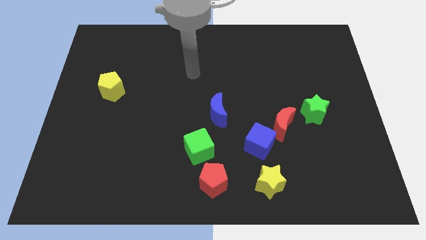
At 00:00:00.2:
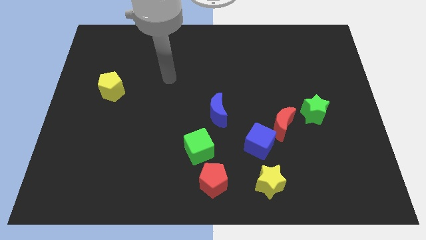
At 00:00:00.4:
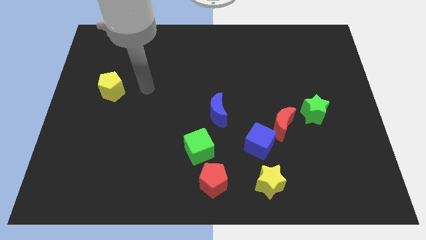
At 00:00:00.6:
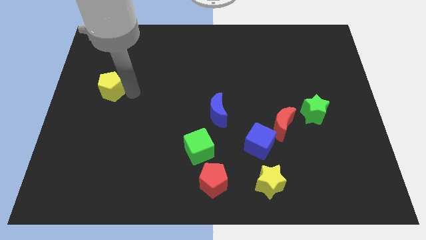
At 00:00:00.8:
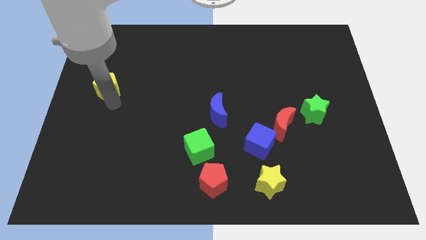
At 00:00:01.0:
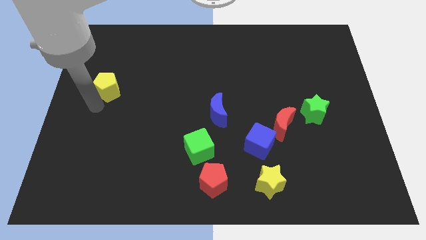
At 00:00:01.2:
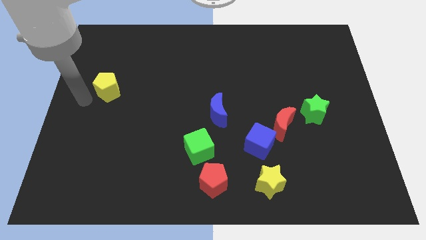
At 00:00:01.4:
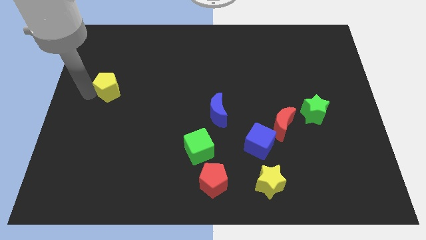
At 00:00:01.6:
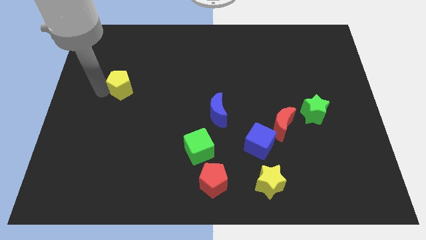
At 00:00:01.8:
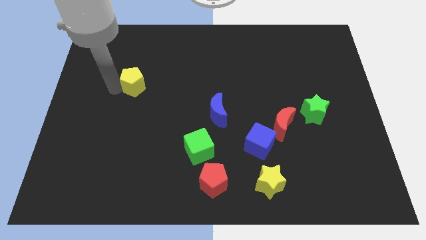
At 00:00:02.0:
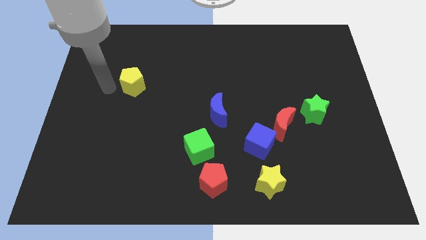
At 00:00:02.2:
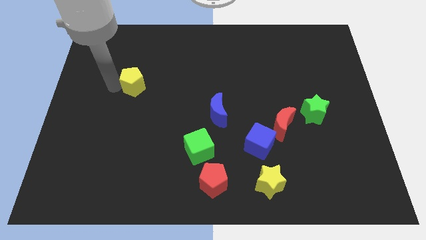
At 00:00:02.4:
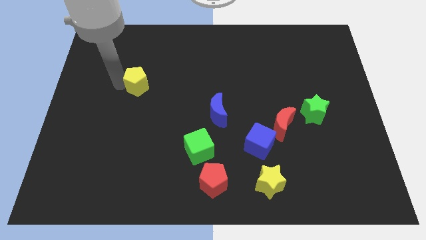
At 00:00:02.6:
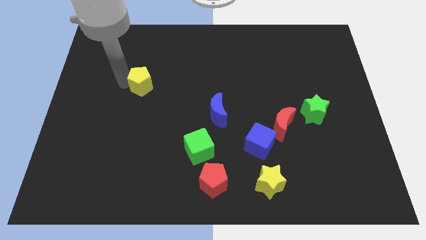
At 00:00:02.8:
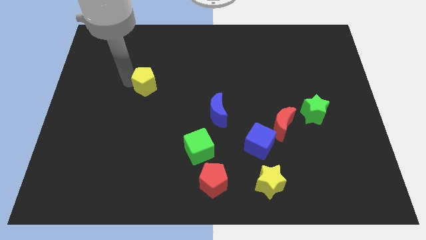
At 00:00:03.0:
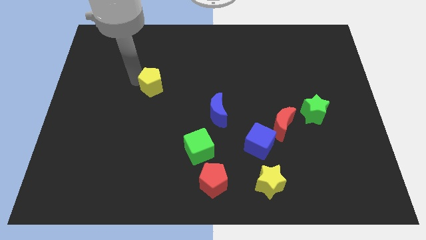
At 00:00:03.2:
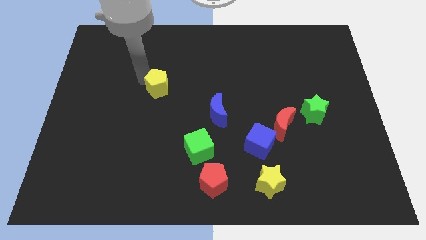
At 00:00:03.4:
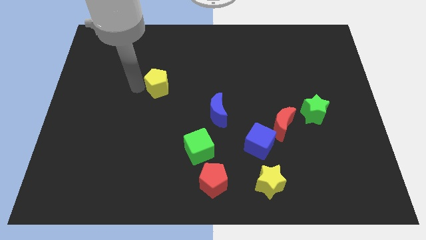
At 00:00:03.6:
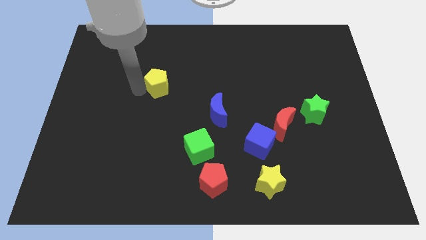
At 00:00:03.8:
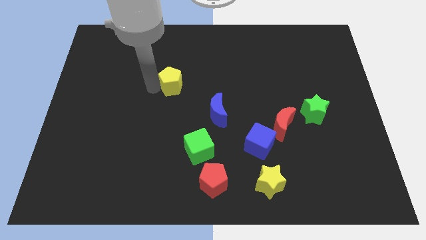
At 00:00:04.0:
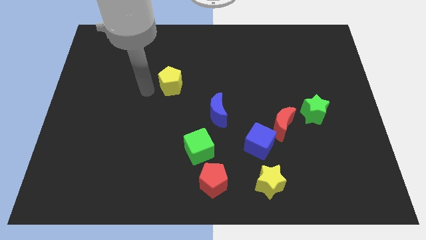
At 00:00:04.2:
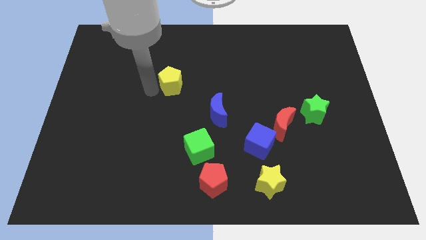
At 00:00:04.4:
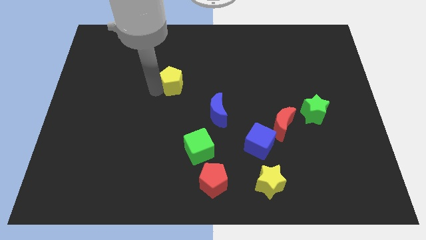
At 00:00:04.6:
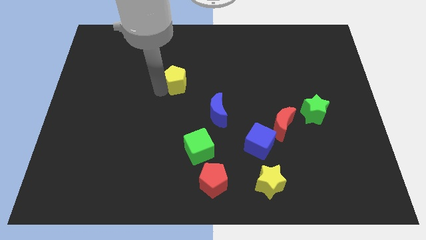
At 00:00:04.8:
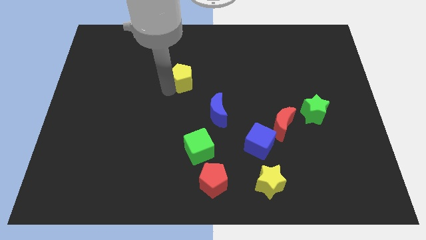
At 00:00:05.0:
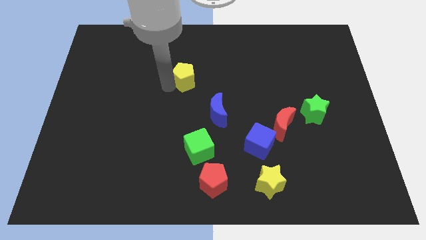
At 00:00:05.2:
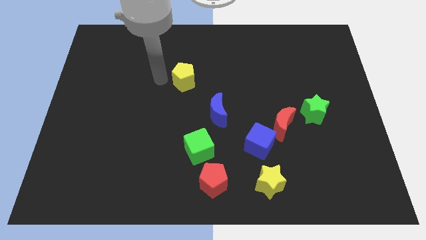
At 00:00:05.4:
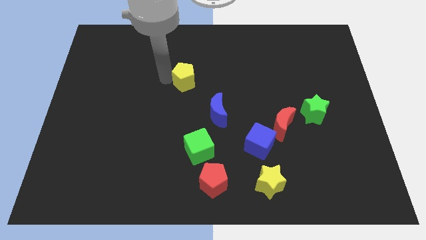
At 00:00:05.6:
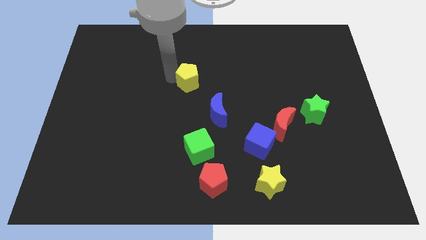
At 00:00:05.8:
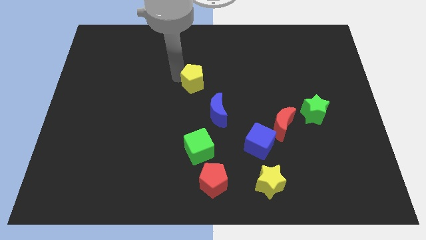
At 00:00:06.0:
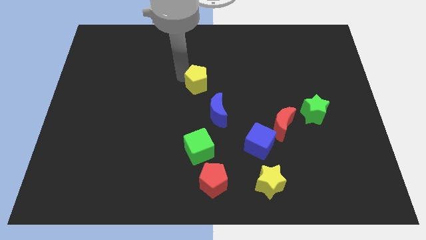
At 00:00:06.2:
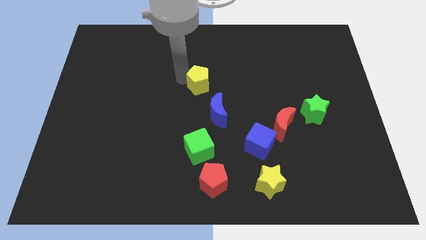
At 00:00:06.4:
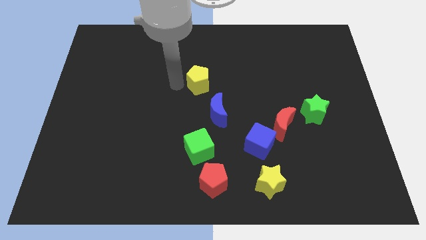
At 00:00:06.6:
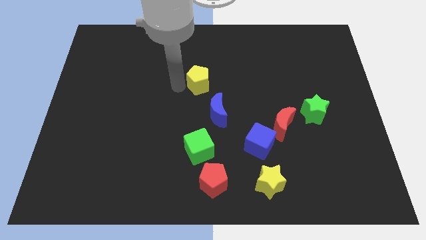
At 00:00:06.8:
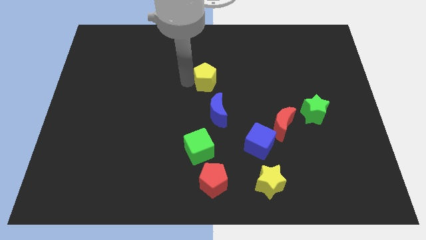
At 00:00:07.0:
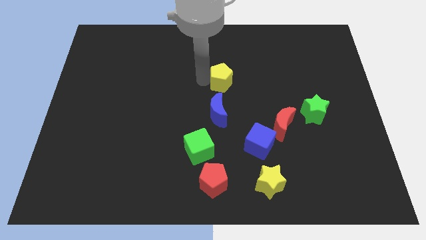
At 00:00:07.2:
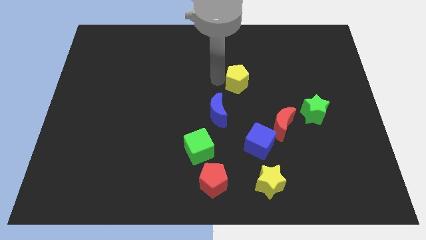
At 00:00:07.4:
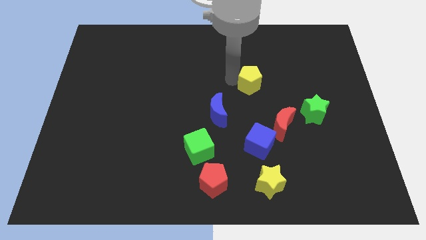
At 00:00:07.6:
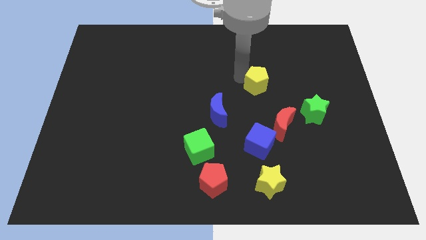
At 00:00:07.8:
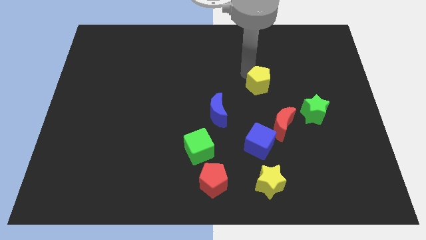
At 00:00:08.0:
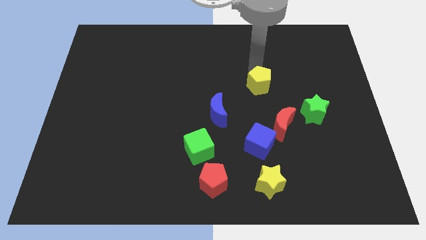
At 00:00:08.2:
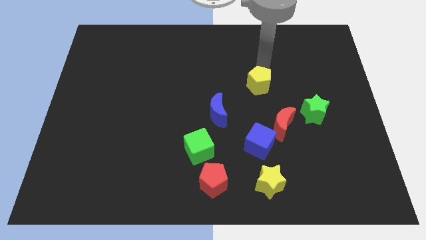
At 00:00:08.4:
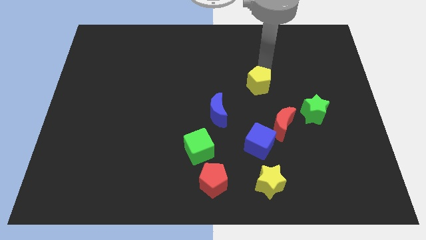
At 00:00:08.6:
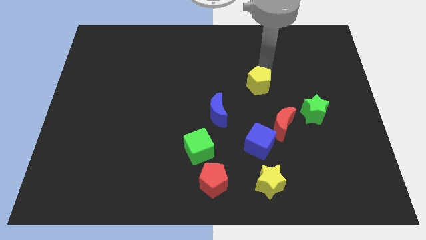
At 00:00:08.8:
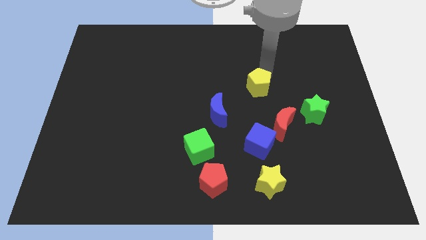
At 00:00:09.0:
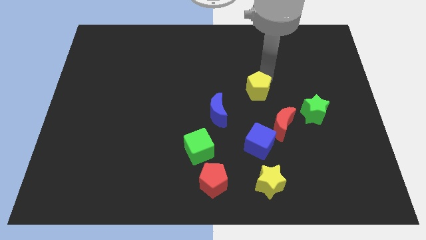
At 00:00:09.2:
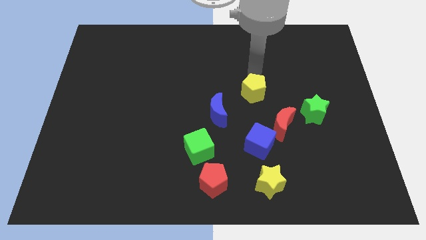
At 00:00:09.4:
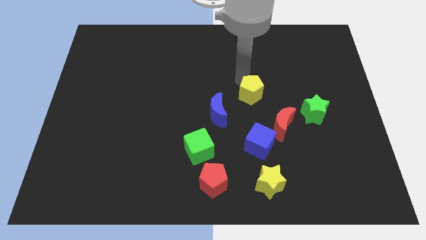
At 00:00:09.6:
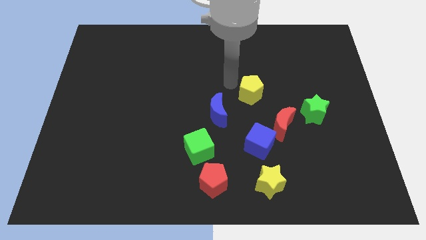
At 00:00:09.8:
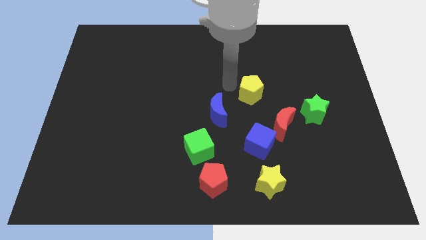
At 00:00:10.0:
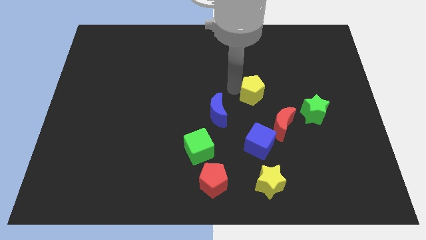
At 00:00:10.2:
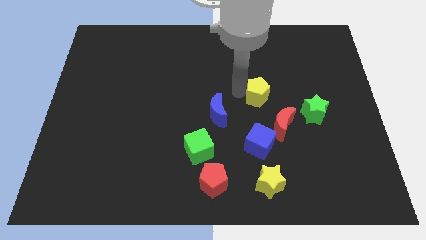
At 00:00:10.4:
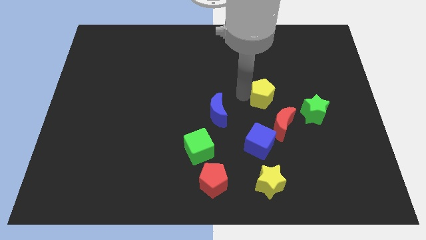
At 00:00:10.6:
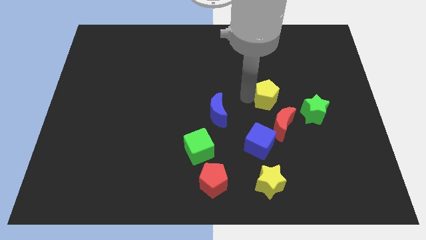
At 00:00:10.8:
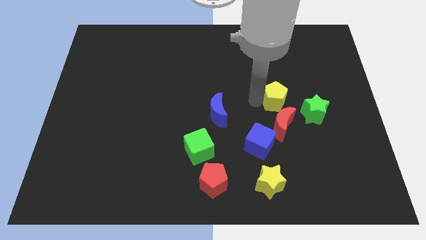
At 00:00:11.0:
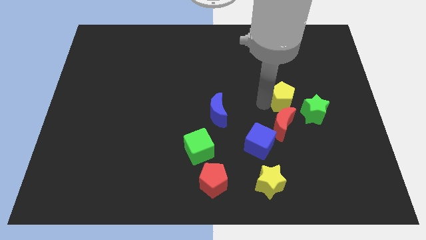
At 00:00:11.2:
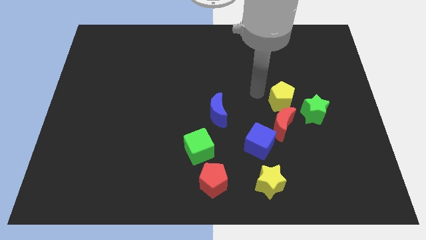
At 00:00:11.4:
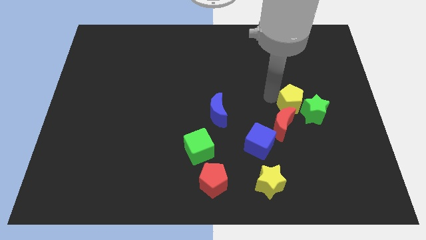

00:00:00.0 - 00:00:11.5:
put the yellow pentagon close to the green star
